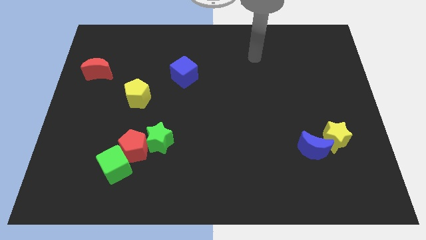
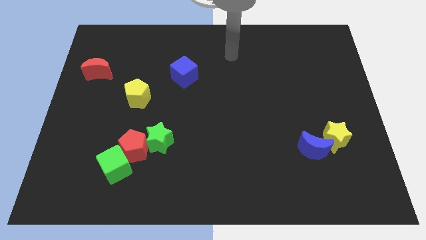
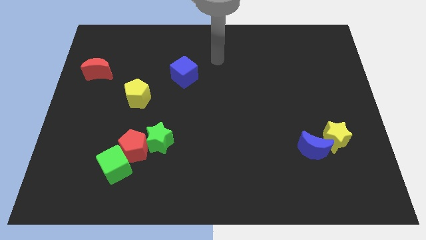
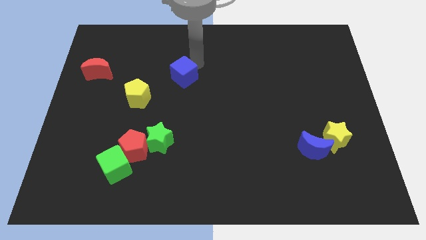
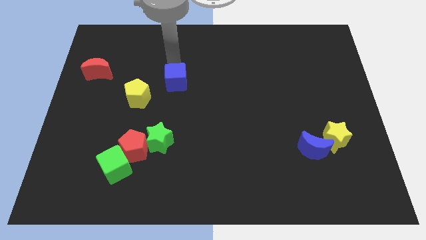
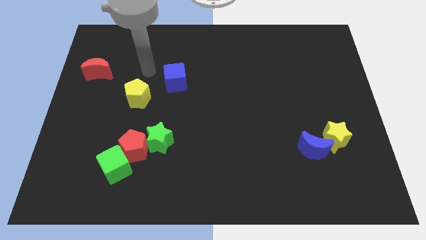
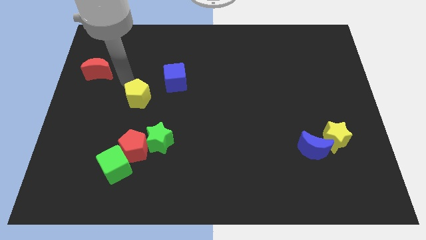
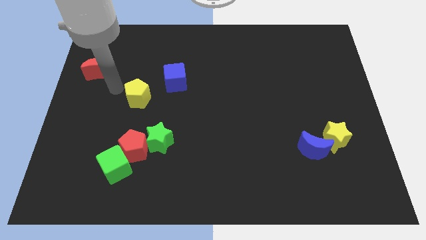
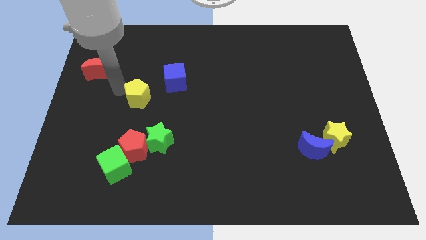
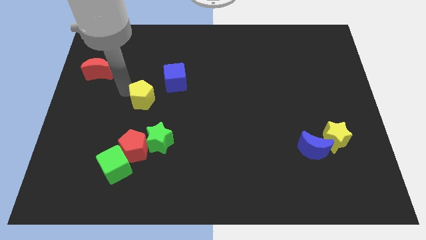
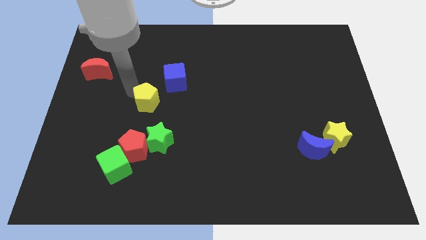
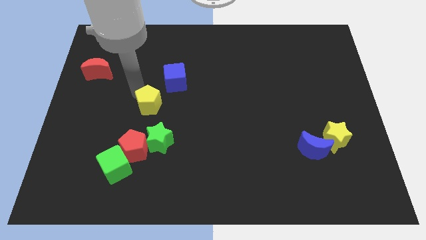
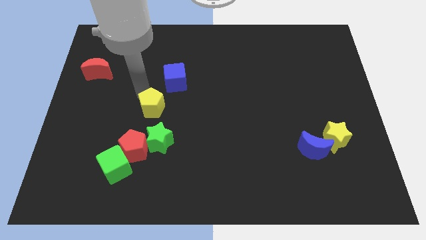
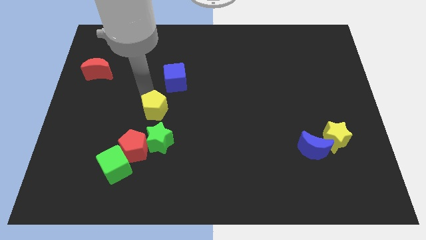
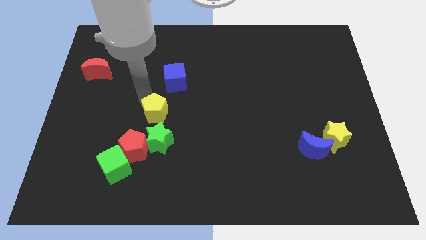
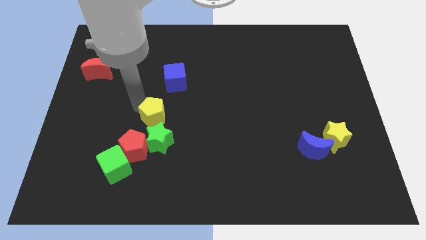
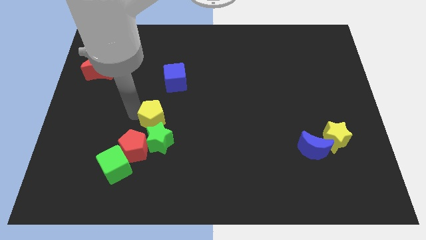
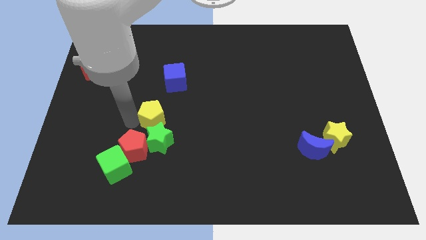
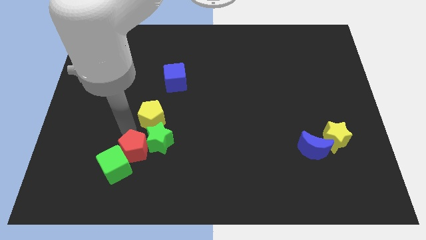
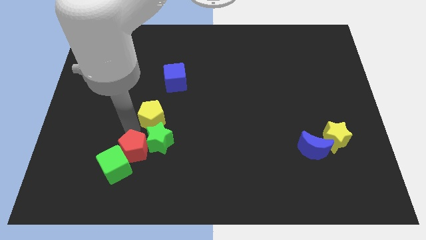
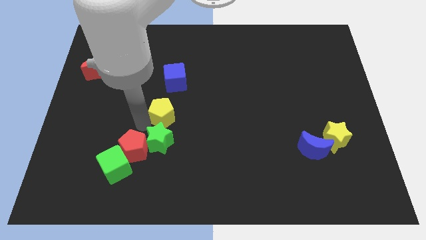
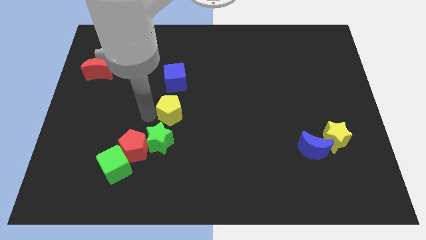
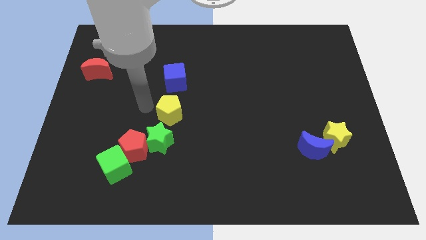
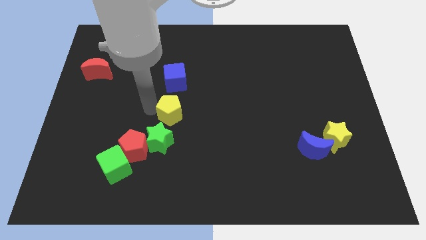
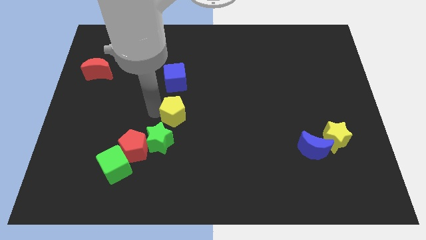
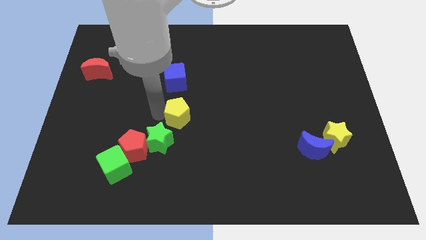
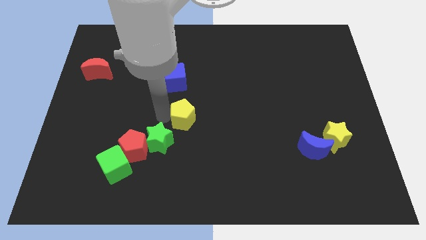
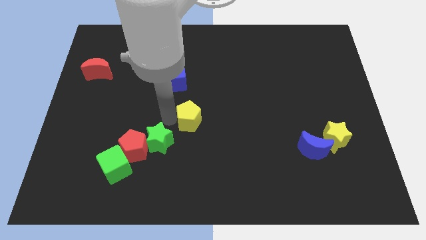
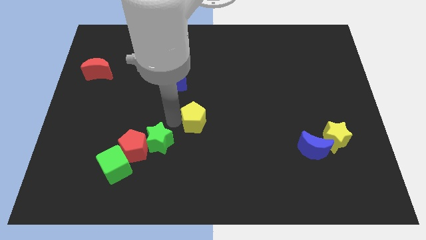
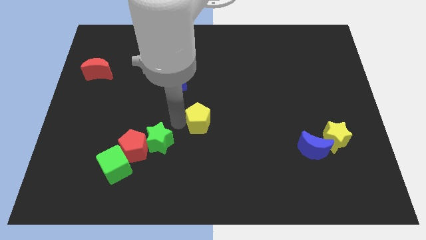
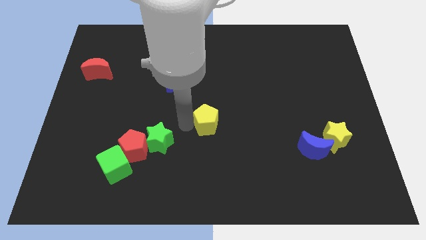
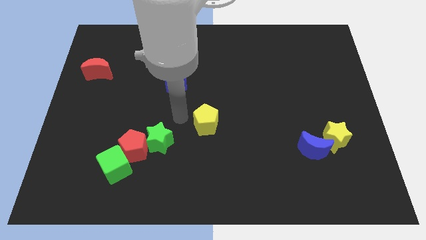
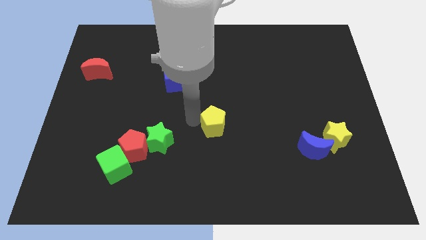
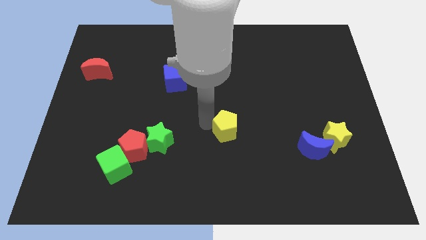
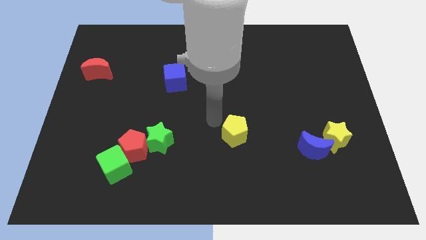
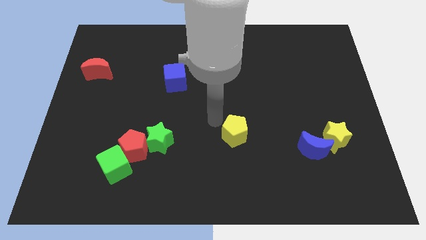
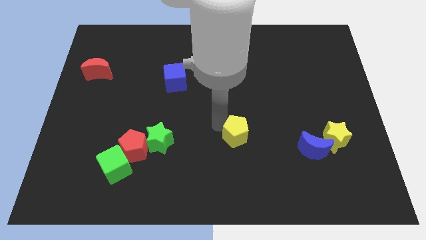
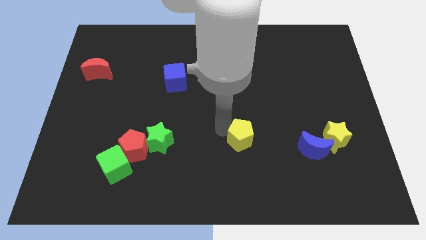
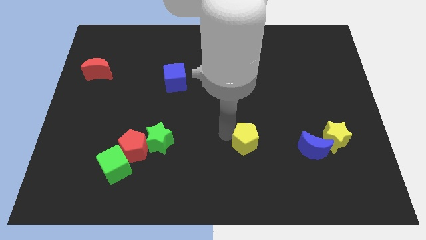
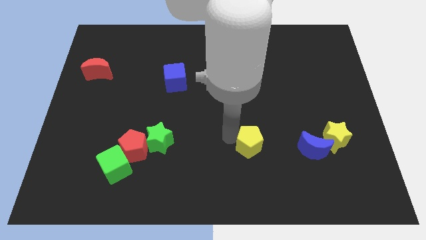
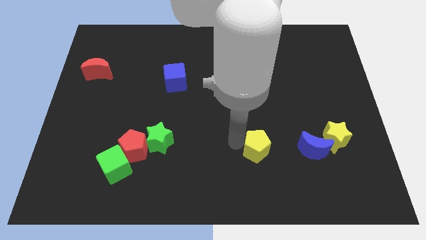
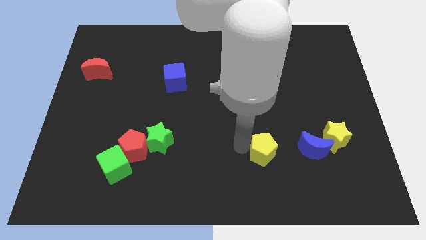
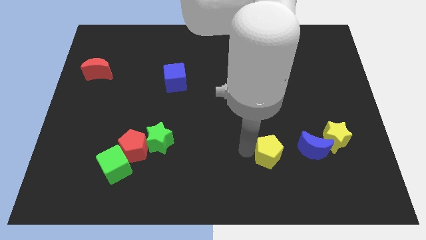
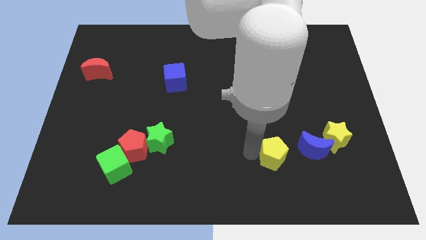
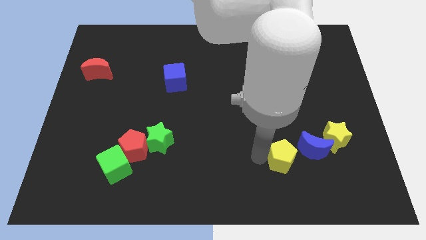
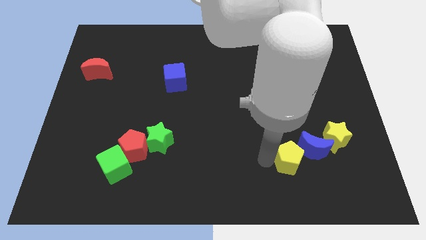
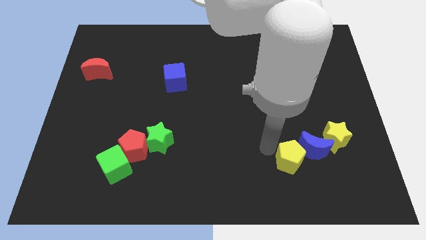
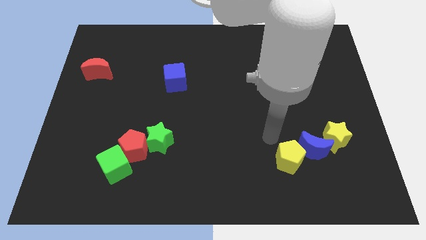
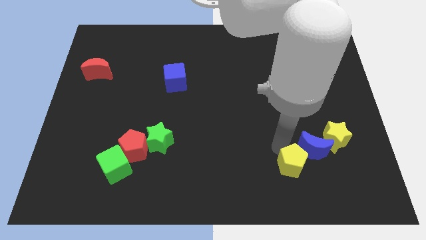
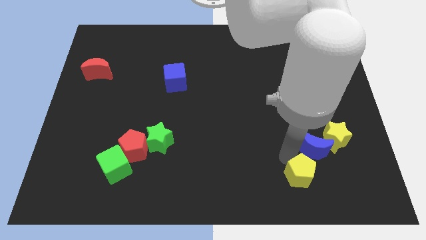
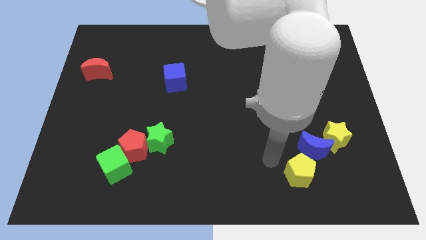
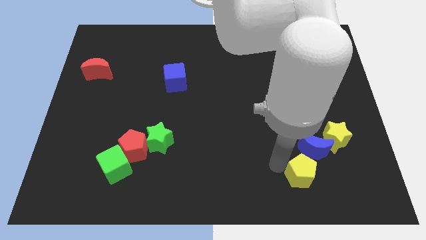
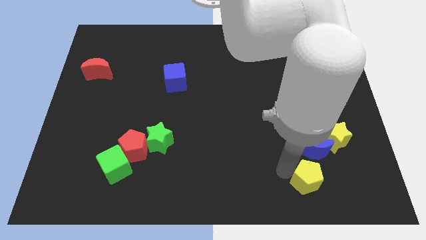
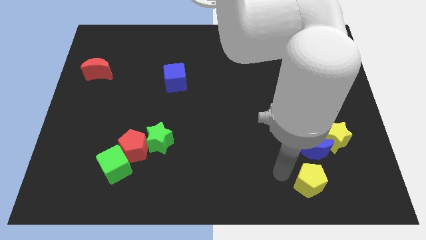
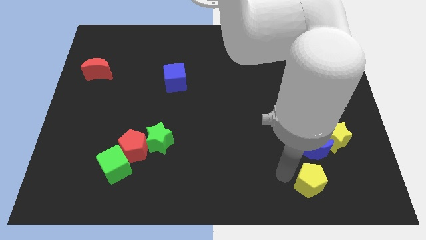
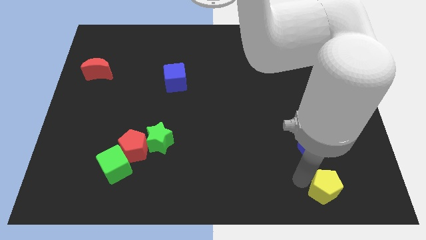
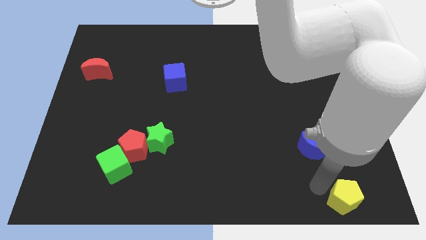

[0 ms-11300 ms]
slide the yellow pentagon to the bottom right corner
